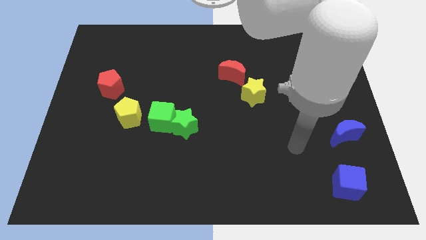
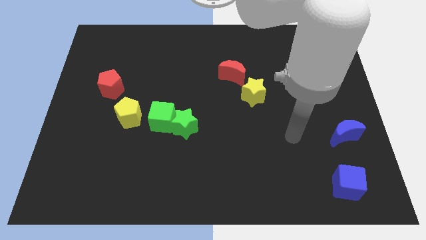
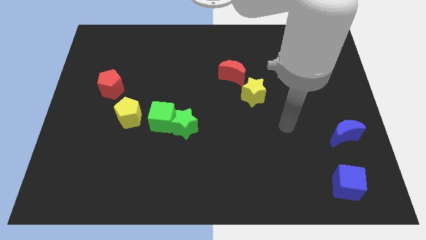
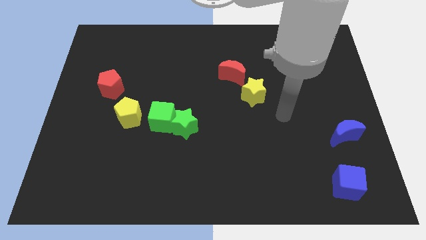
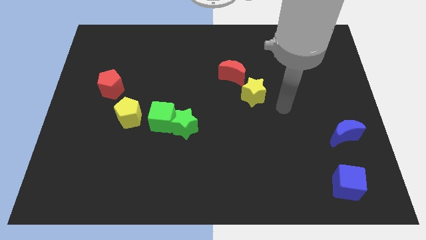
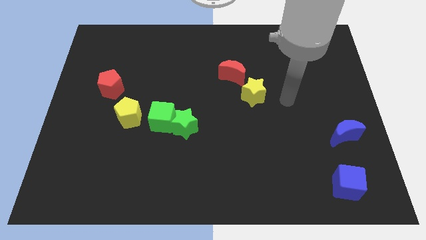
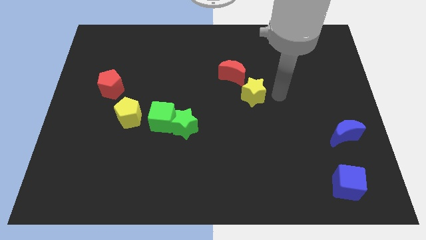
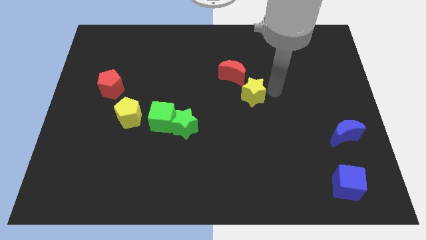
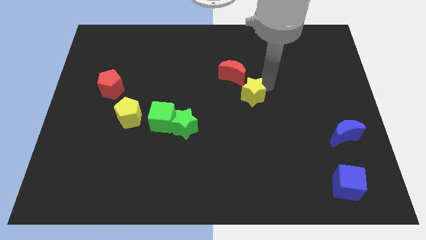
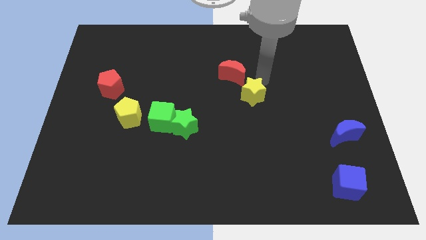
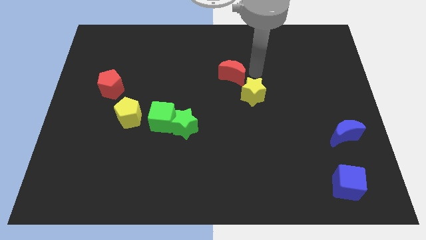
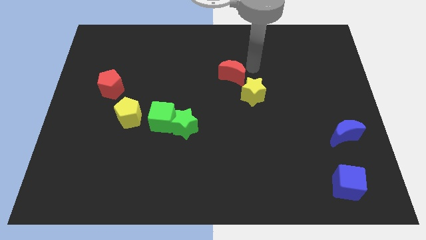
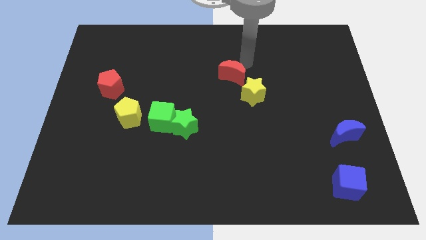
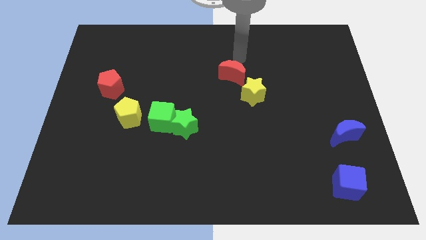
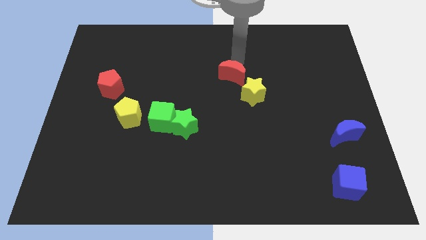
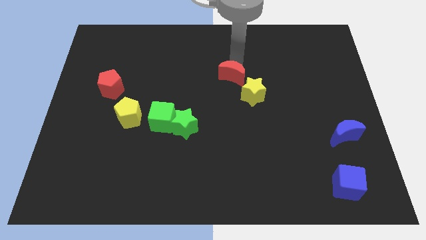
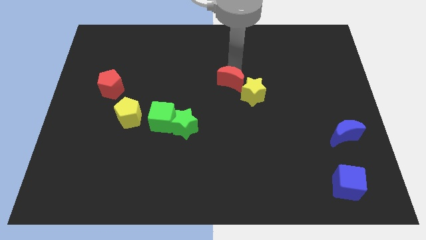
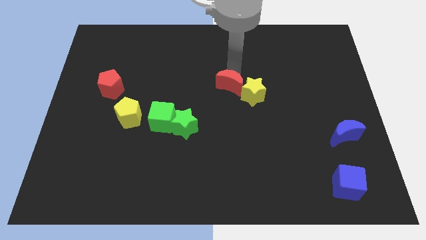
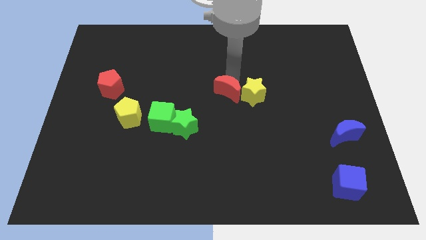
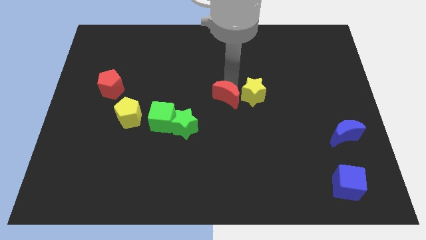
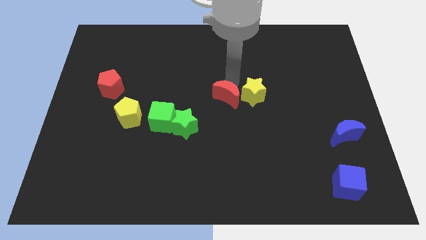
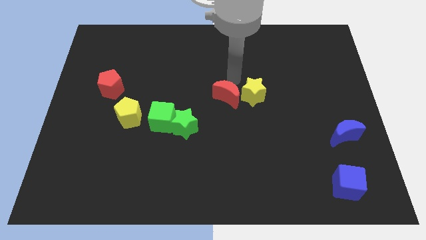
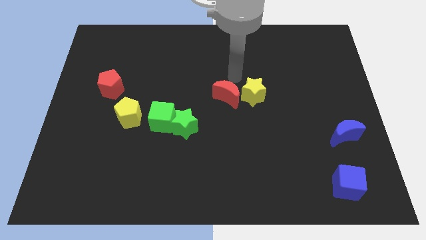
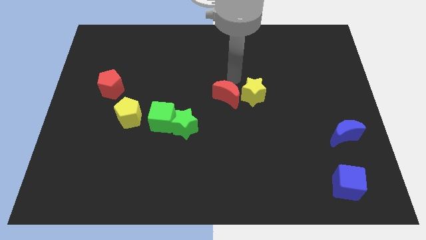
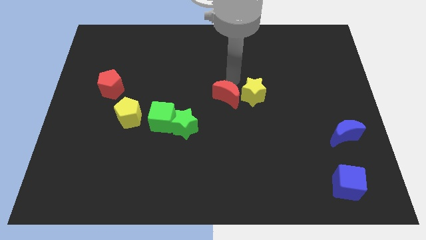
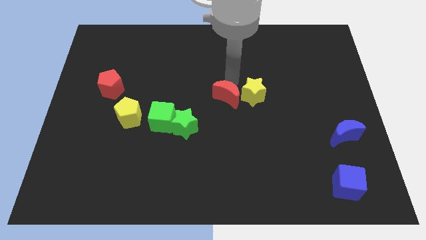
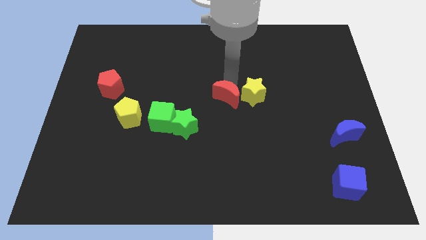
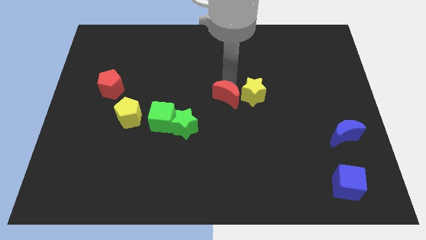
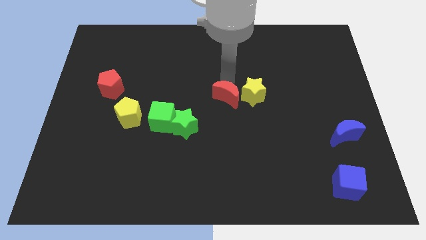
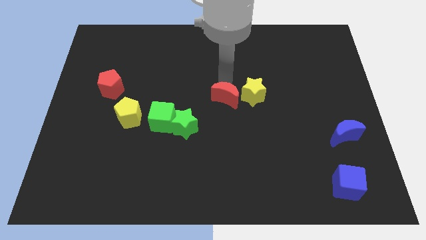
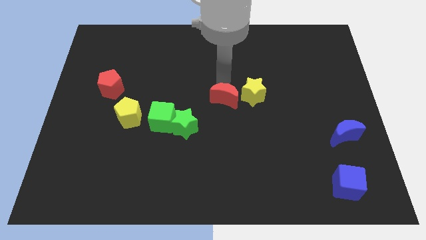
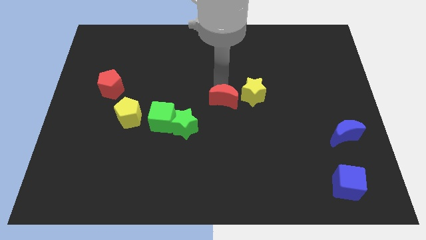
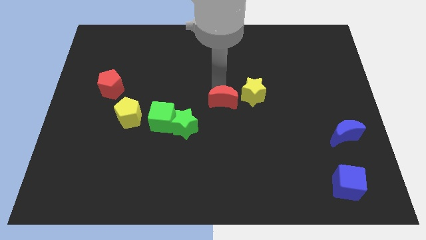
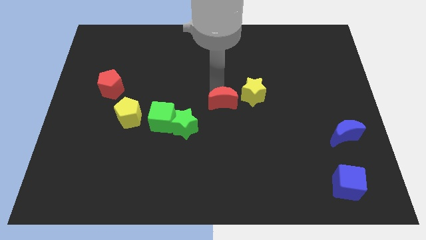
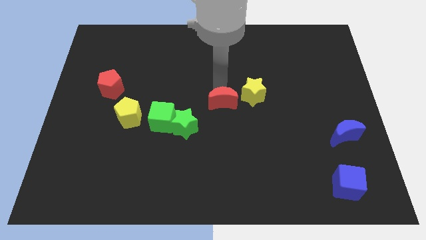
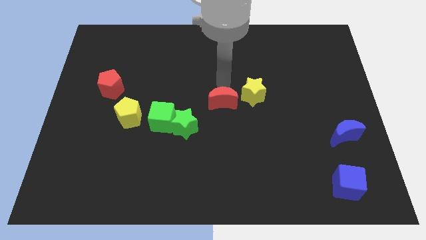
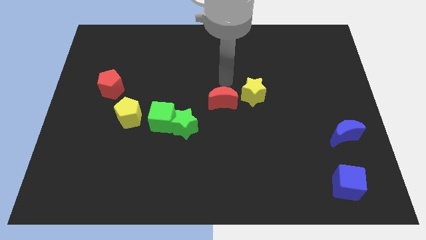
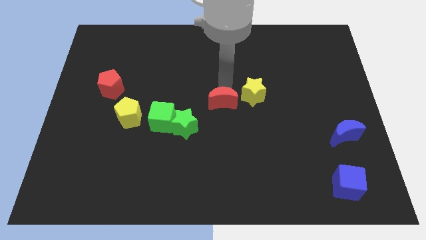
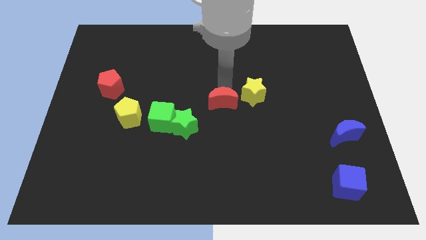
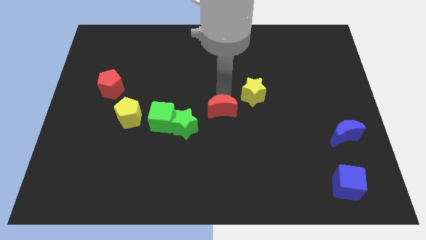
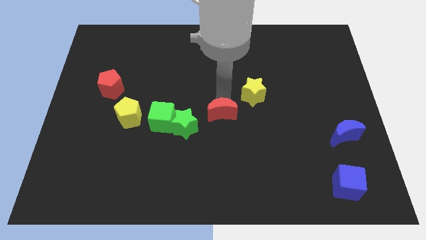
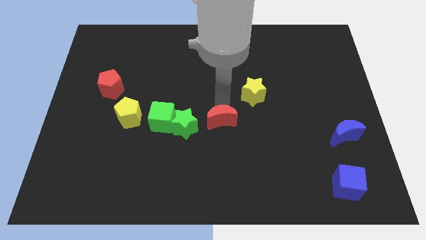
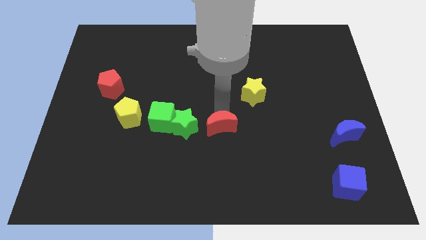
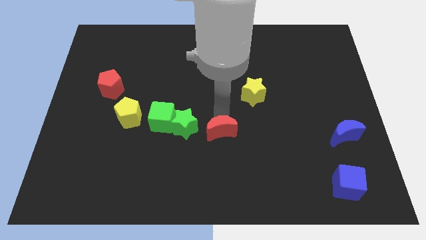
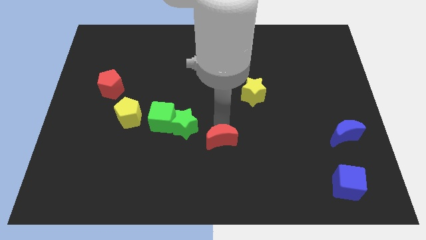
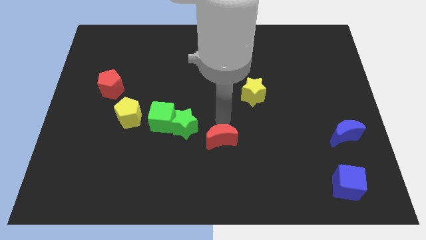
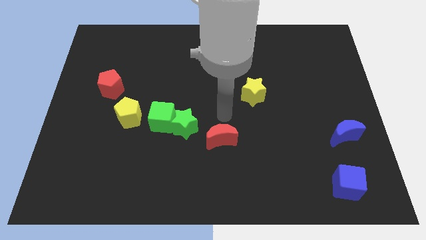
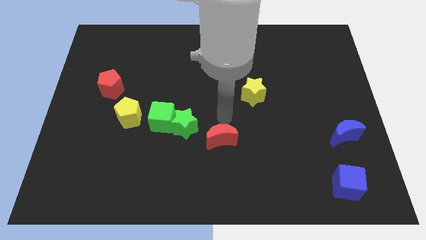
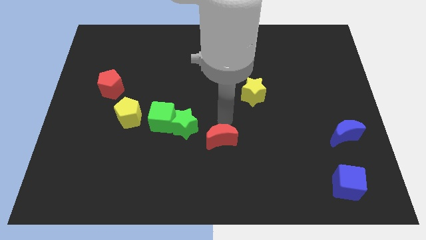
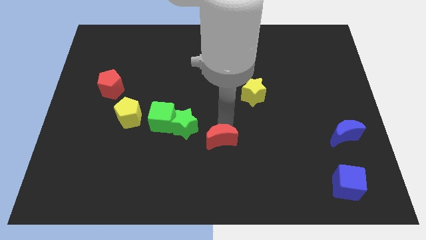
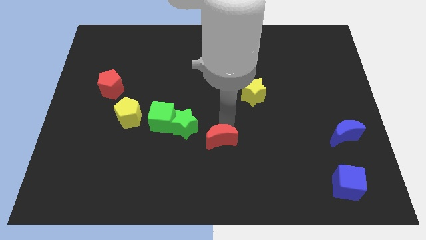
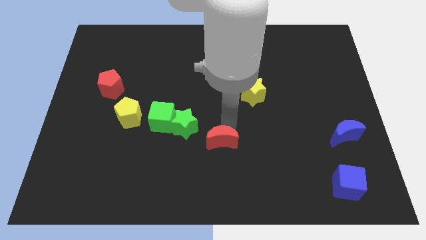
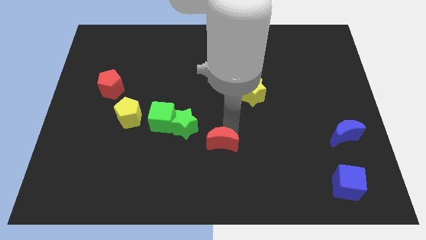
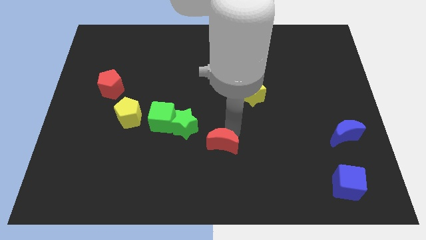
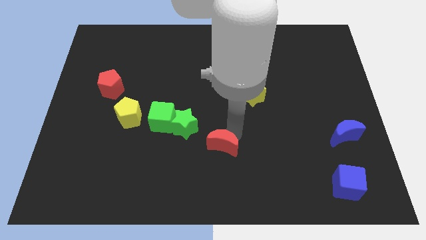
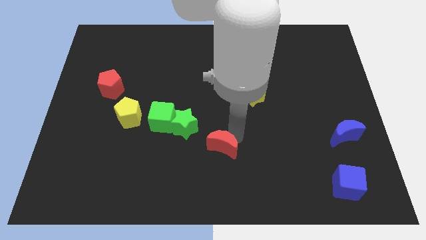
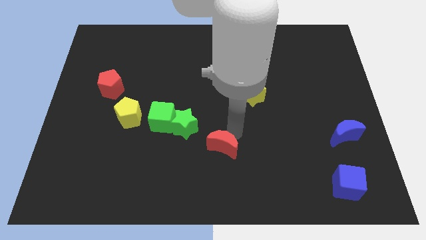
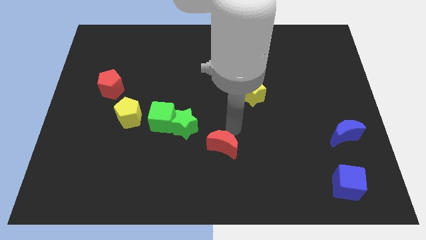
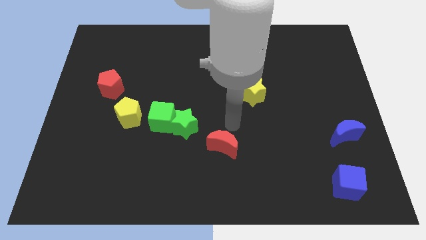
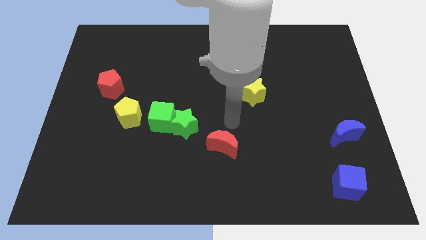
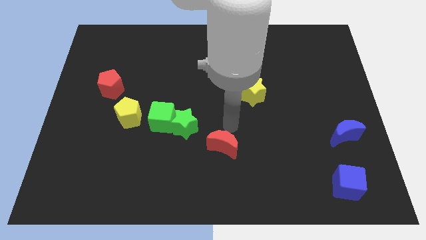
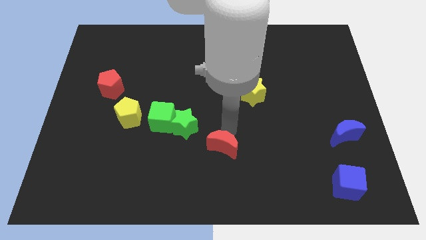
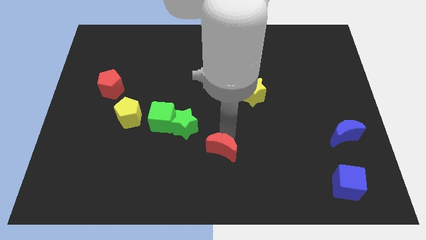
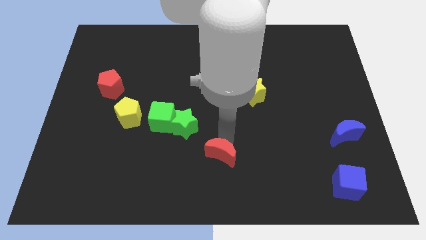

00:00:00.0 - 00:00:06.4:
slide the red moon to the bottom

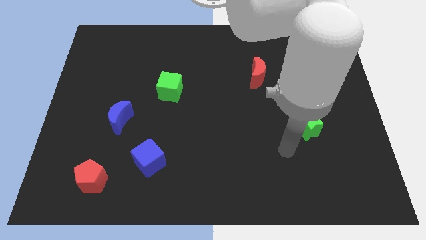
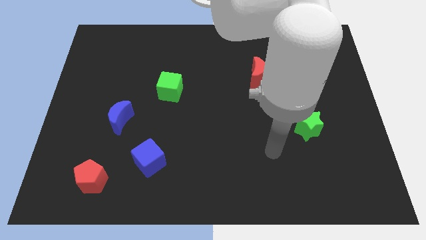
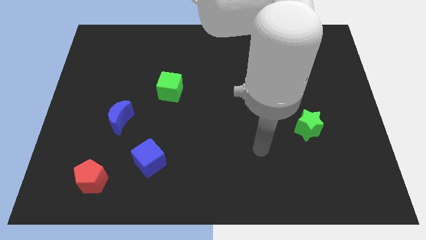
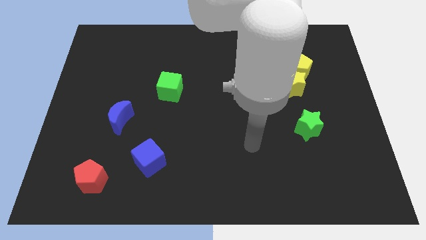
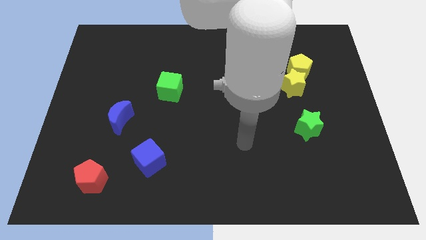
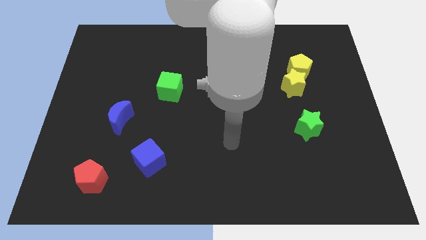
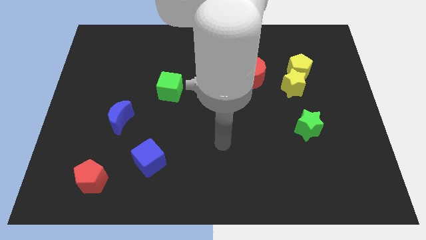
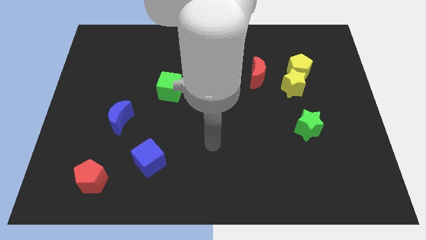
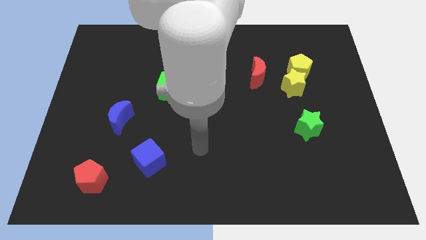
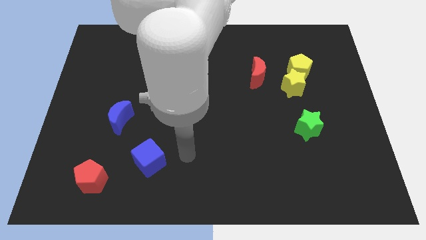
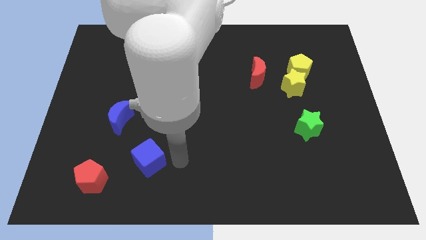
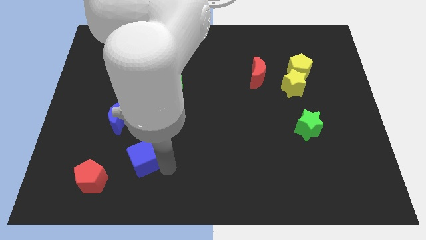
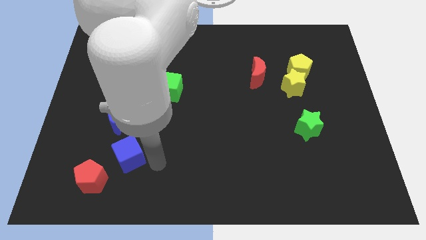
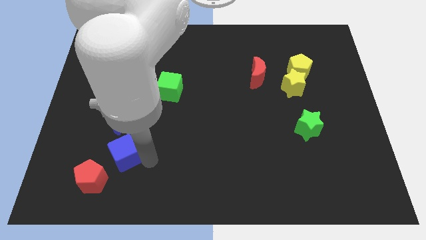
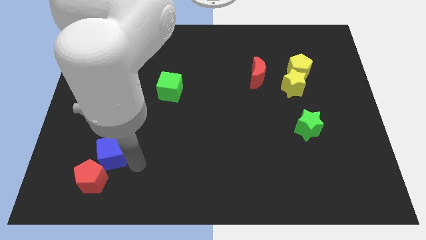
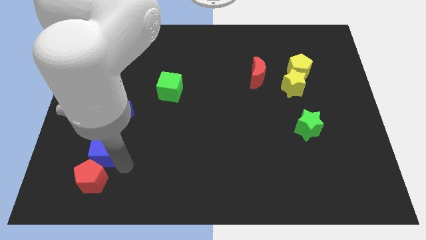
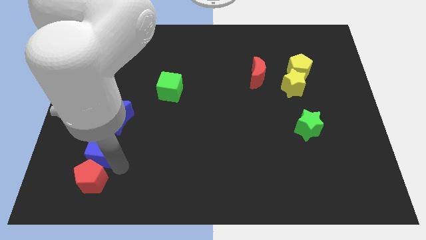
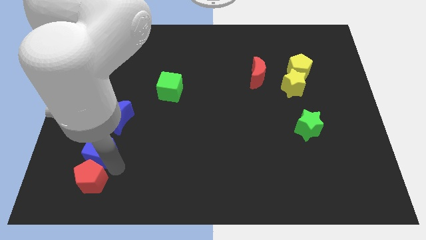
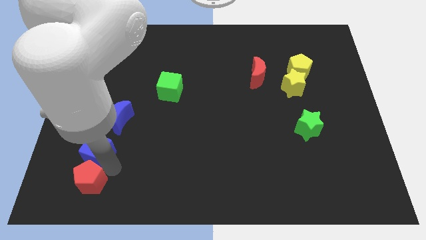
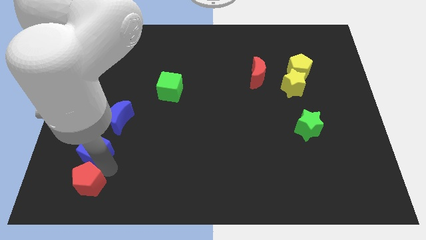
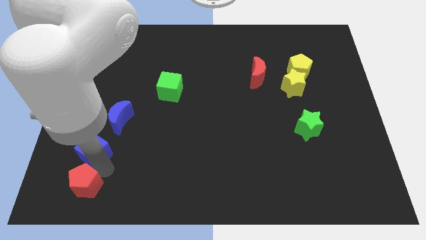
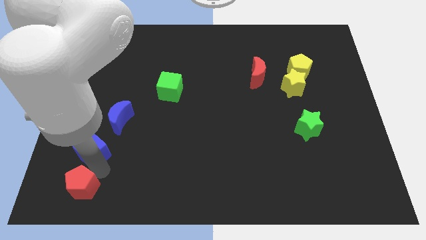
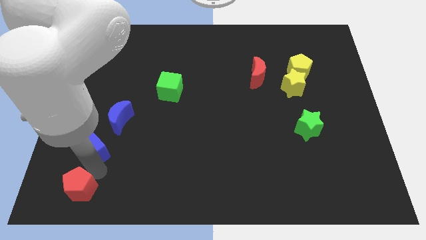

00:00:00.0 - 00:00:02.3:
push the red pentagon to the bottom left of the board
